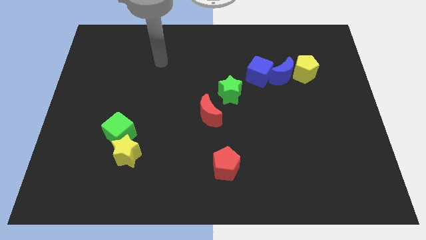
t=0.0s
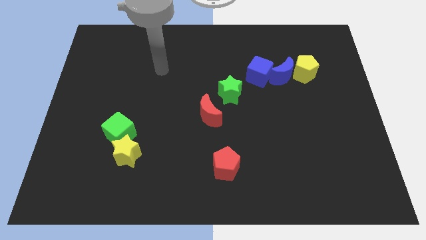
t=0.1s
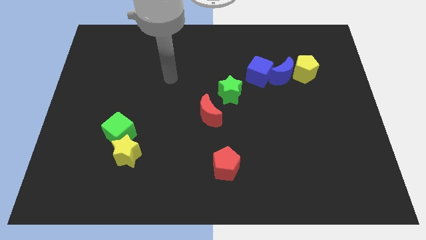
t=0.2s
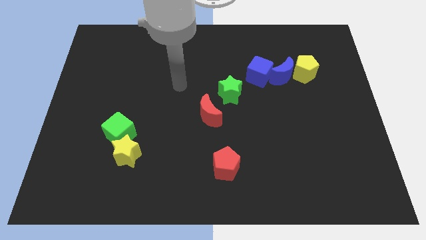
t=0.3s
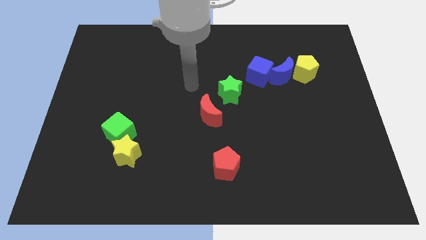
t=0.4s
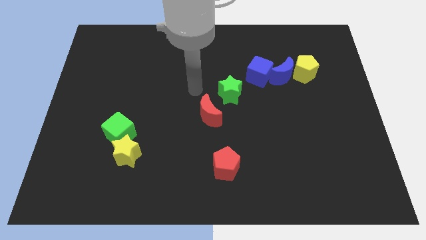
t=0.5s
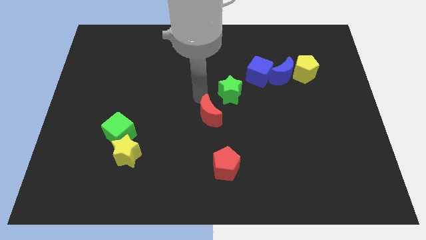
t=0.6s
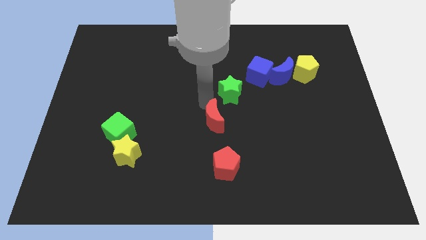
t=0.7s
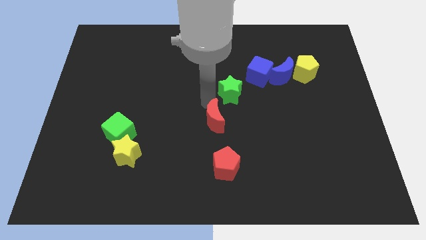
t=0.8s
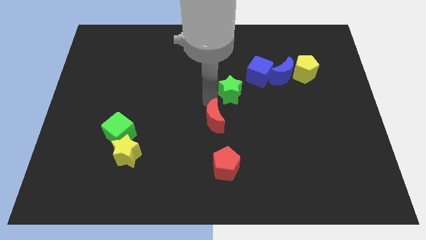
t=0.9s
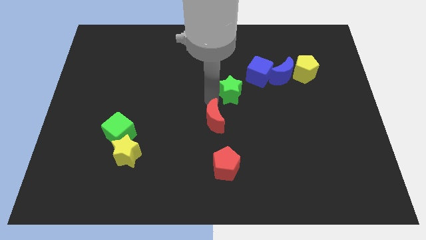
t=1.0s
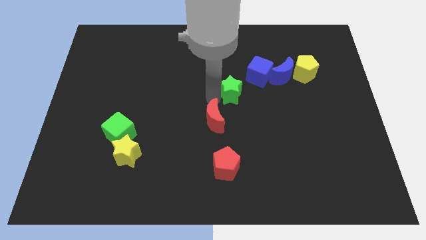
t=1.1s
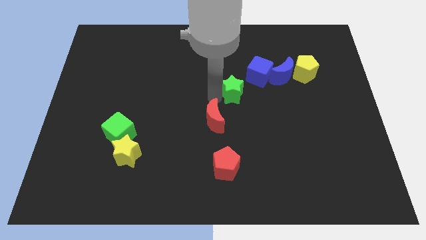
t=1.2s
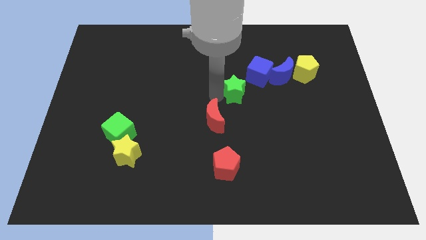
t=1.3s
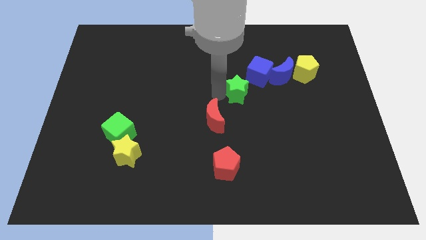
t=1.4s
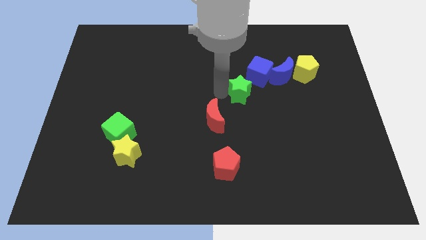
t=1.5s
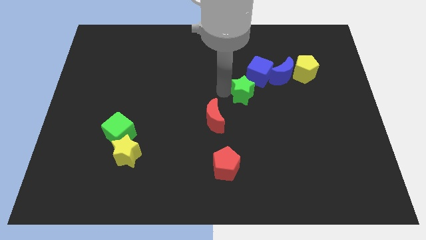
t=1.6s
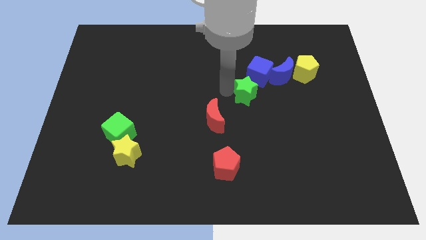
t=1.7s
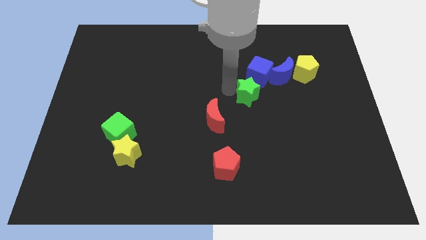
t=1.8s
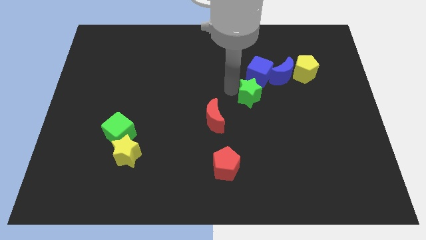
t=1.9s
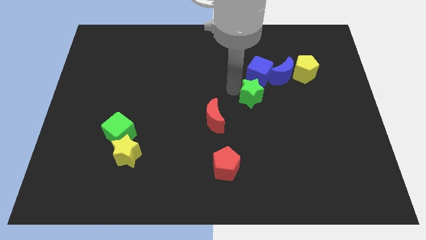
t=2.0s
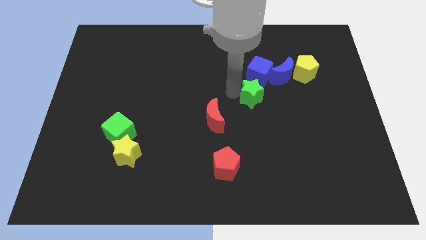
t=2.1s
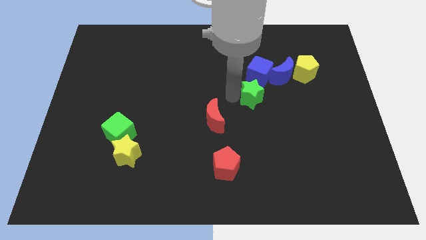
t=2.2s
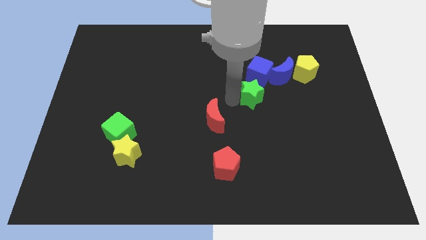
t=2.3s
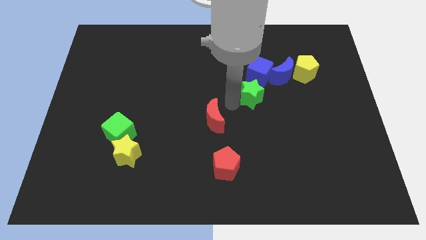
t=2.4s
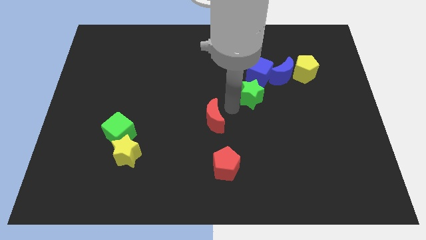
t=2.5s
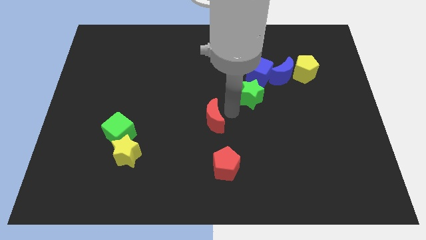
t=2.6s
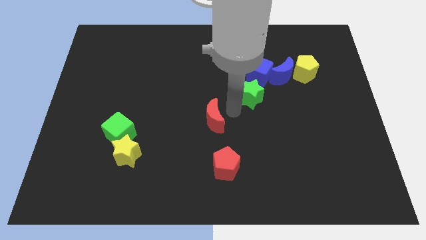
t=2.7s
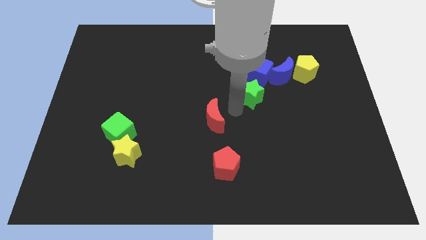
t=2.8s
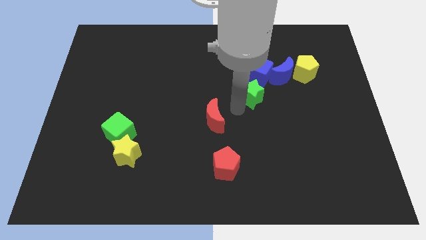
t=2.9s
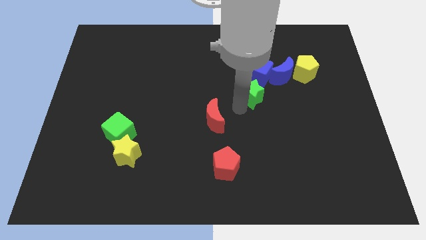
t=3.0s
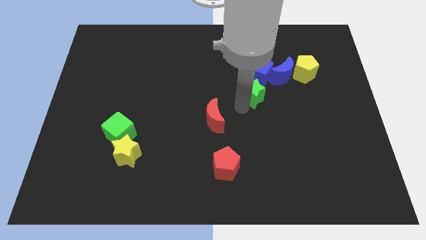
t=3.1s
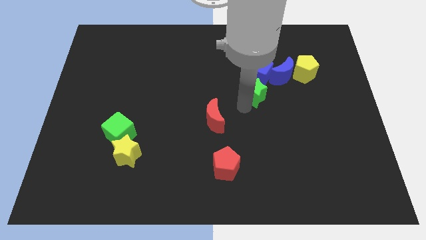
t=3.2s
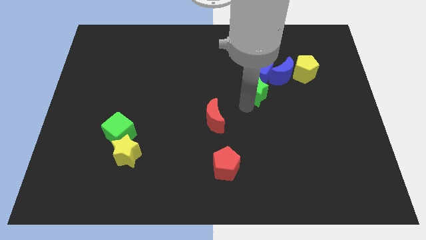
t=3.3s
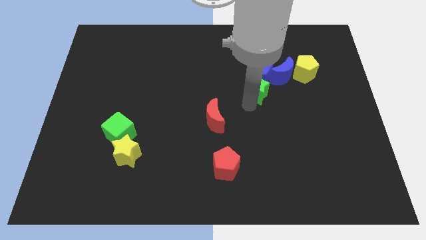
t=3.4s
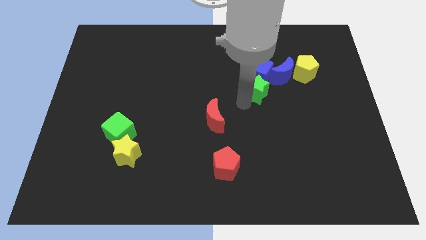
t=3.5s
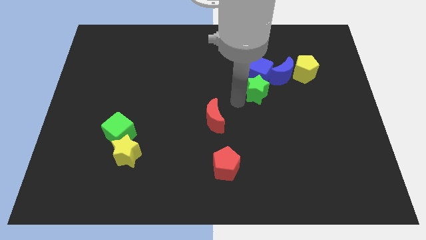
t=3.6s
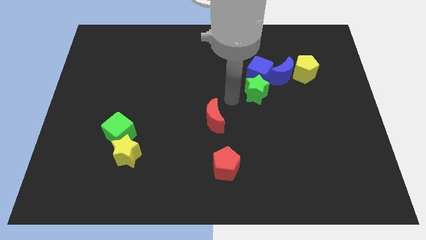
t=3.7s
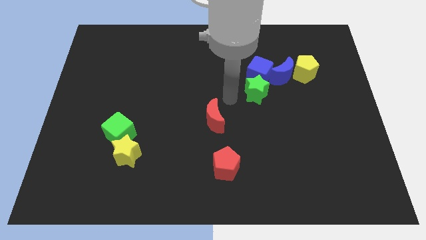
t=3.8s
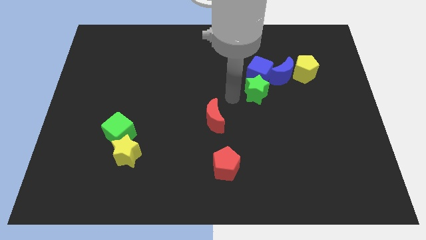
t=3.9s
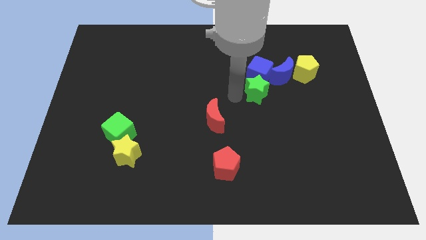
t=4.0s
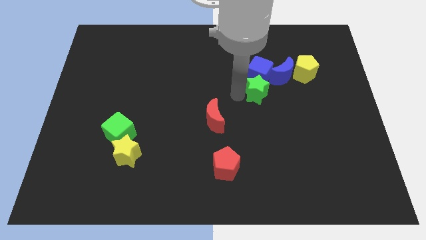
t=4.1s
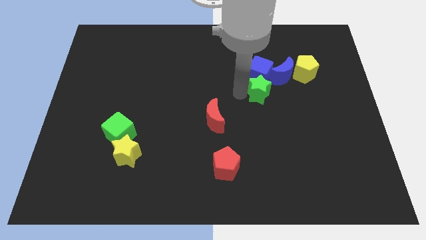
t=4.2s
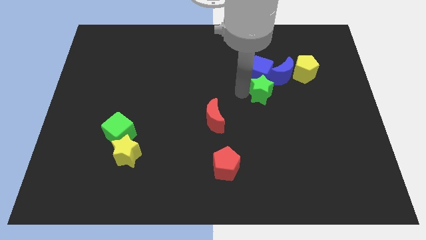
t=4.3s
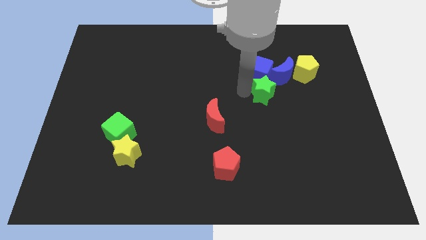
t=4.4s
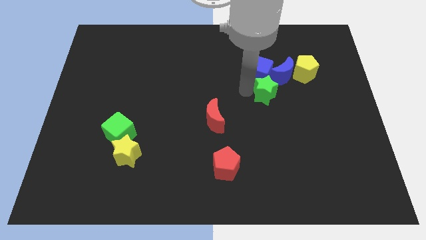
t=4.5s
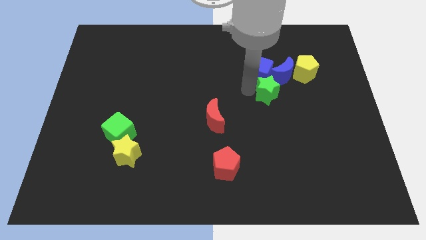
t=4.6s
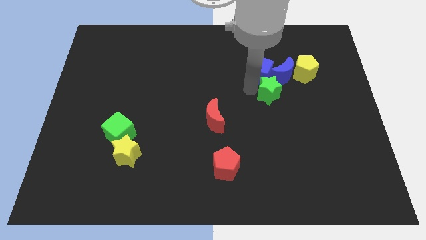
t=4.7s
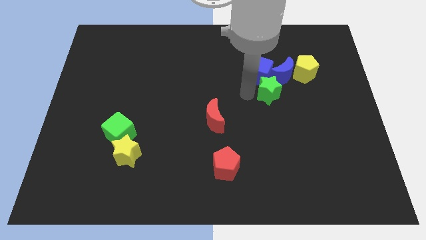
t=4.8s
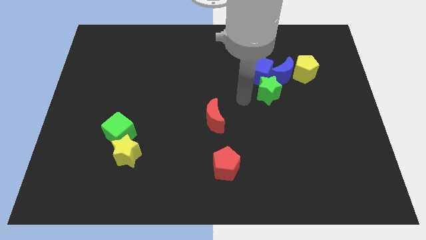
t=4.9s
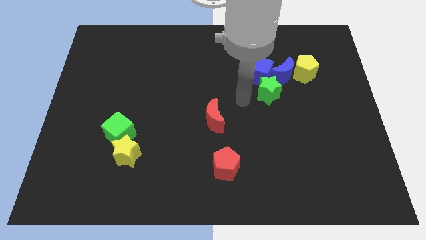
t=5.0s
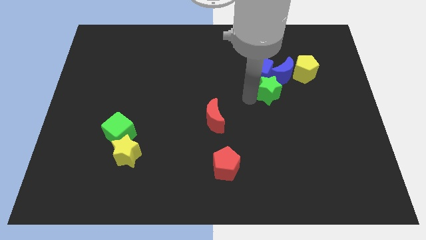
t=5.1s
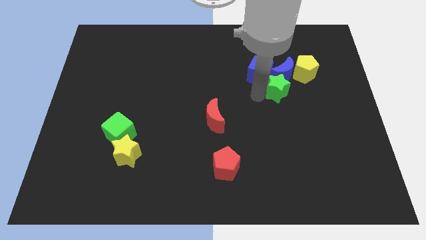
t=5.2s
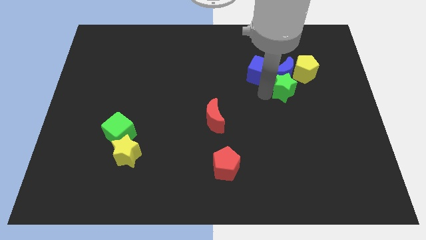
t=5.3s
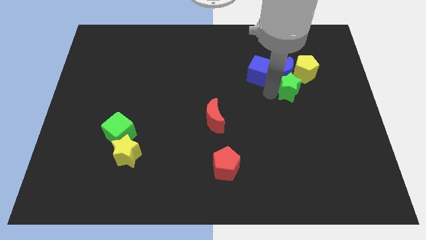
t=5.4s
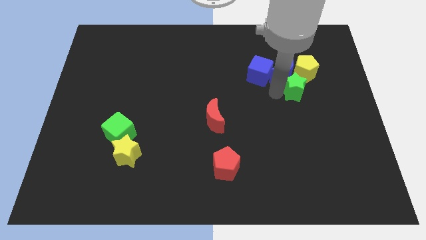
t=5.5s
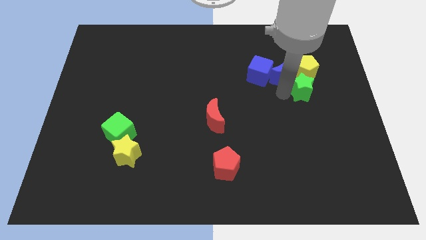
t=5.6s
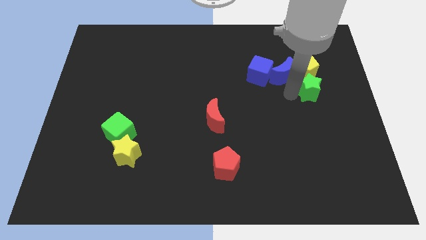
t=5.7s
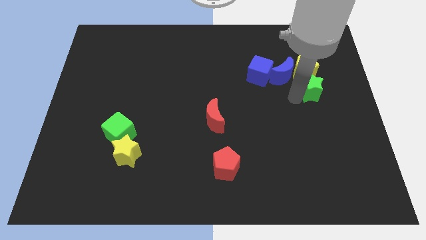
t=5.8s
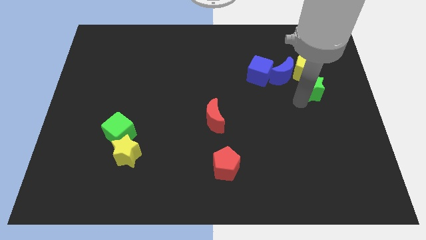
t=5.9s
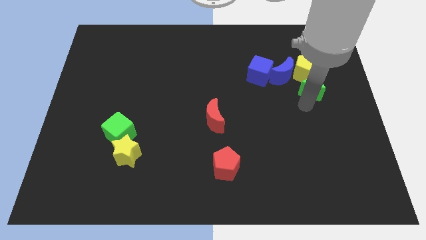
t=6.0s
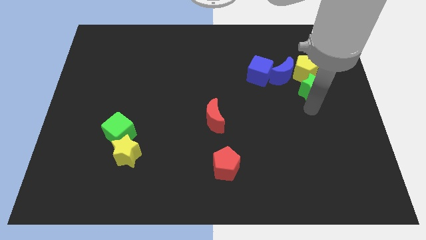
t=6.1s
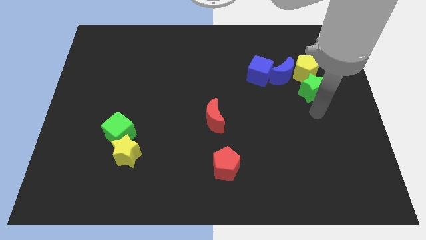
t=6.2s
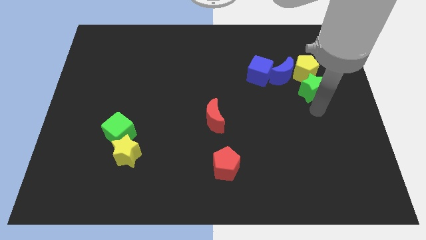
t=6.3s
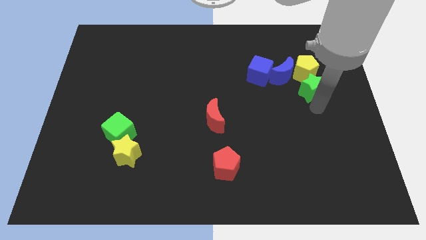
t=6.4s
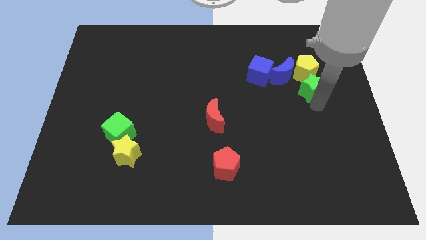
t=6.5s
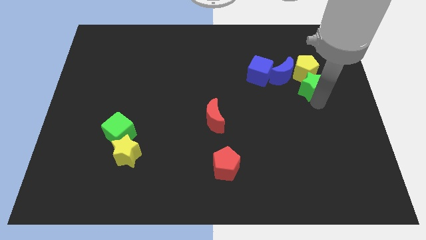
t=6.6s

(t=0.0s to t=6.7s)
put the green star next to the yellow pentagon

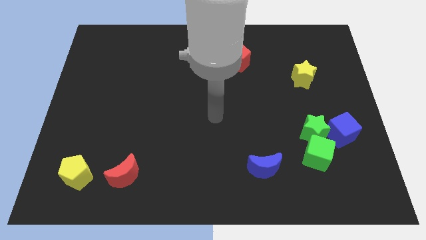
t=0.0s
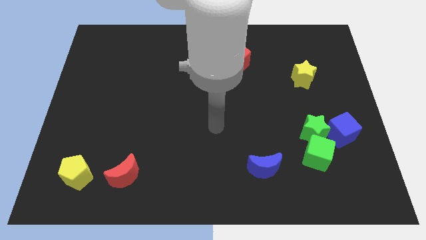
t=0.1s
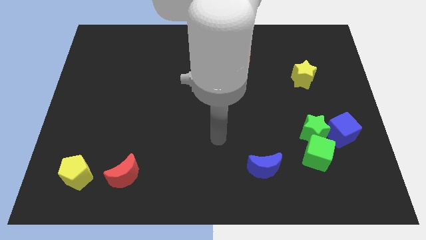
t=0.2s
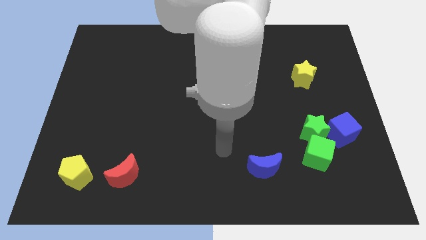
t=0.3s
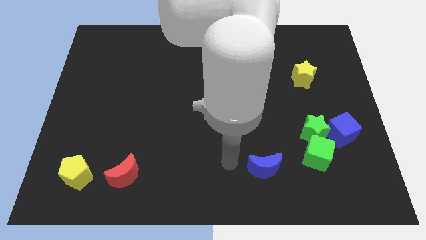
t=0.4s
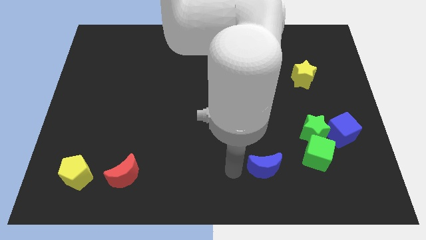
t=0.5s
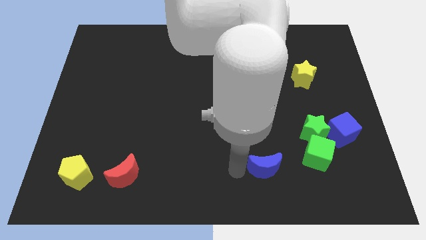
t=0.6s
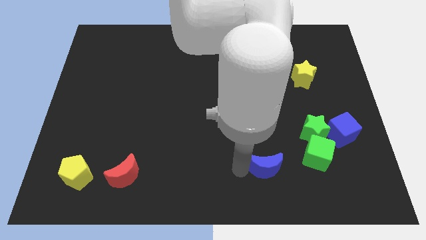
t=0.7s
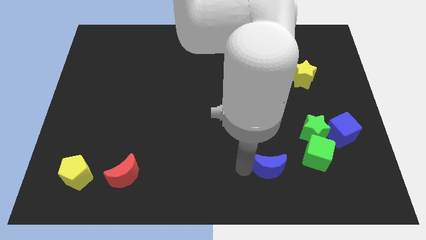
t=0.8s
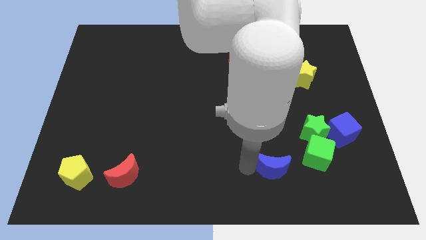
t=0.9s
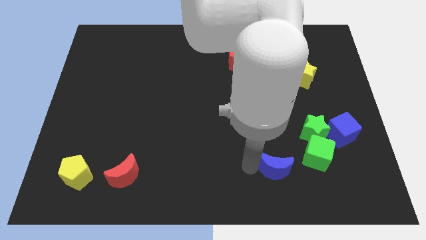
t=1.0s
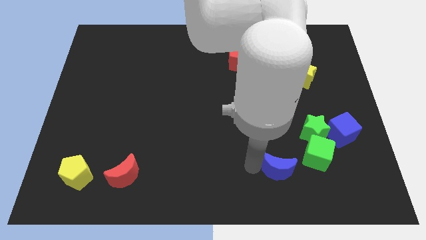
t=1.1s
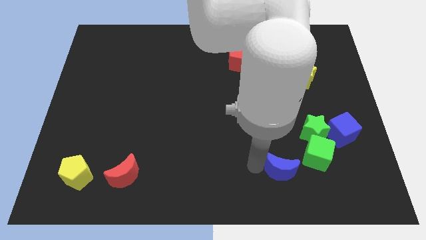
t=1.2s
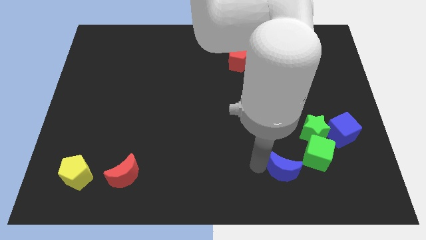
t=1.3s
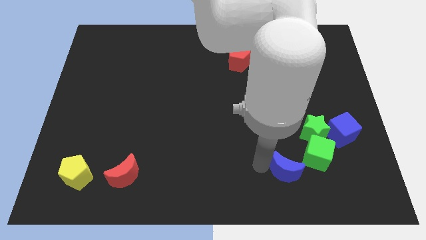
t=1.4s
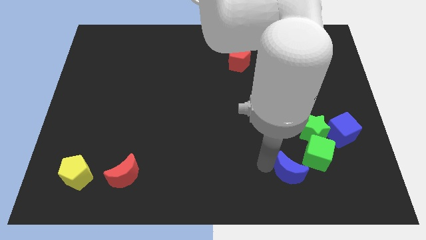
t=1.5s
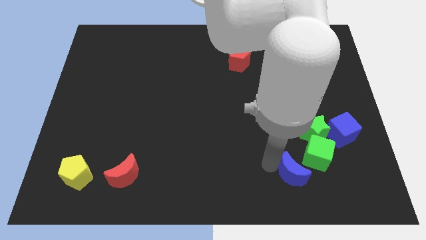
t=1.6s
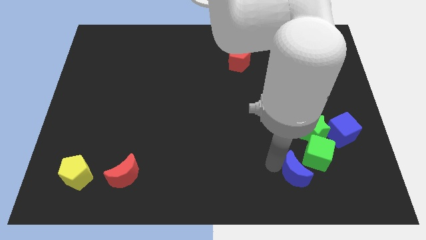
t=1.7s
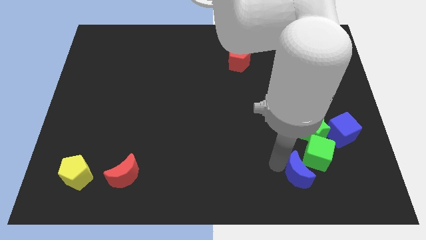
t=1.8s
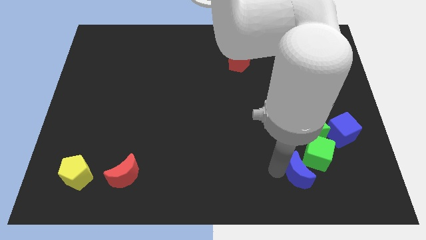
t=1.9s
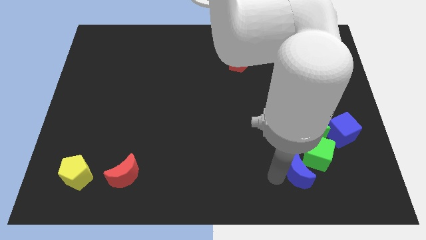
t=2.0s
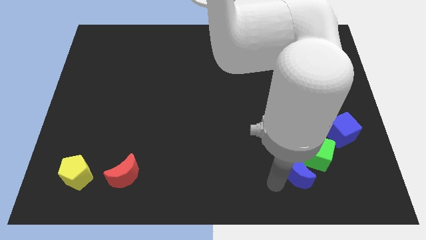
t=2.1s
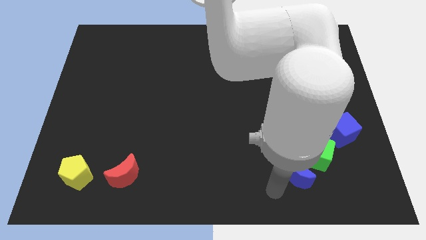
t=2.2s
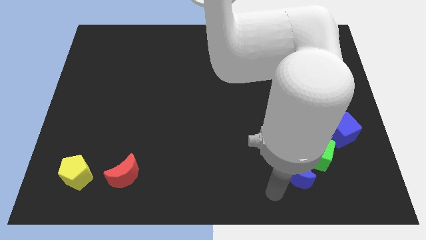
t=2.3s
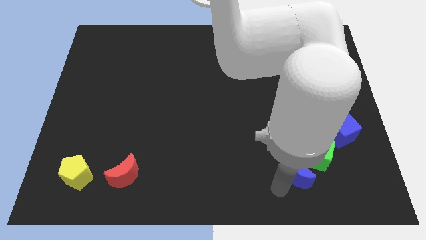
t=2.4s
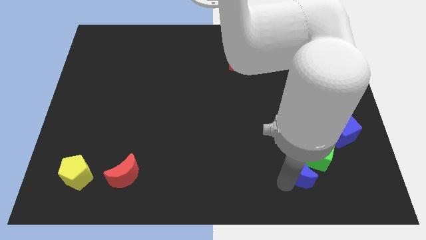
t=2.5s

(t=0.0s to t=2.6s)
push the blue moon next to the green cube
